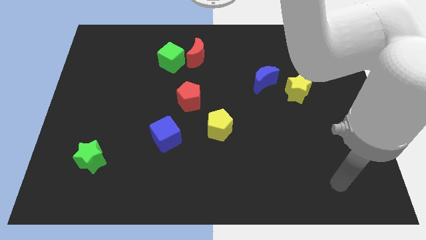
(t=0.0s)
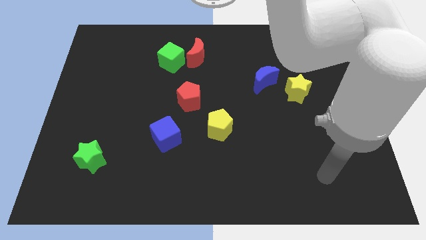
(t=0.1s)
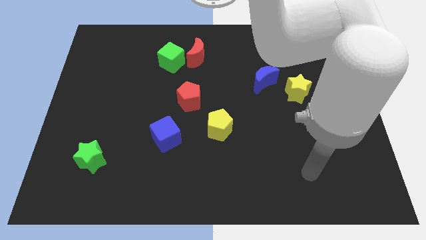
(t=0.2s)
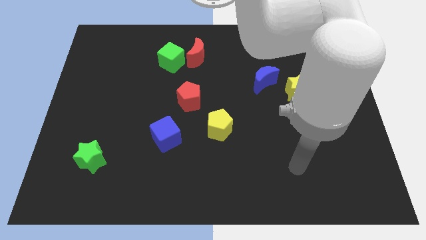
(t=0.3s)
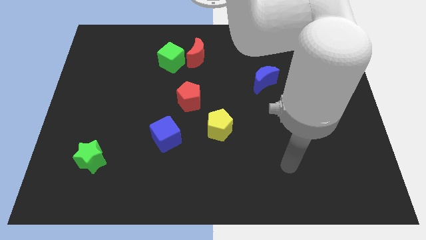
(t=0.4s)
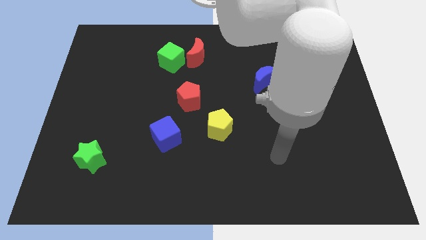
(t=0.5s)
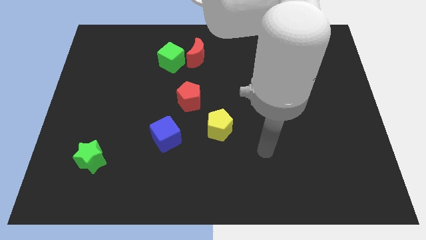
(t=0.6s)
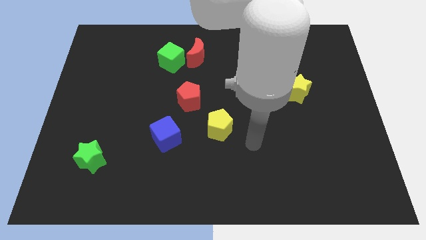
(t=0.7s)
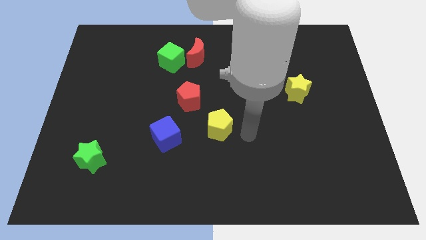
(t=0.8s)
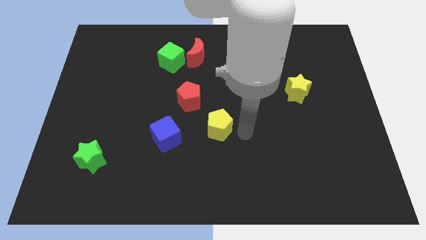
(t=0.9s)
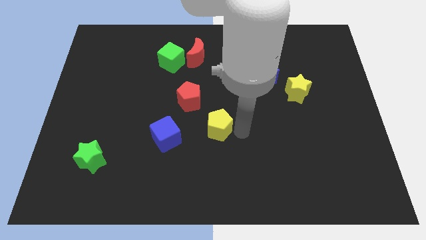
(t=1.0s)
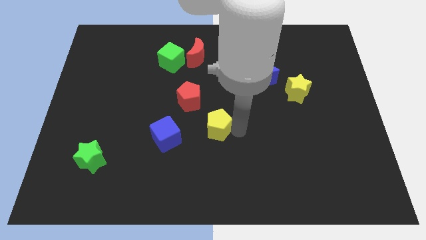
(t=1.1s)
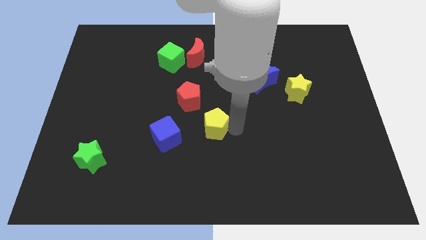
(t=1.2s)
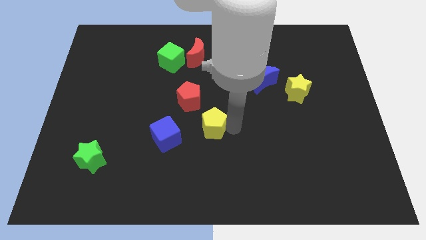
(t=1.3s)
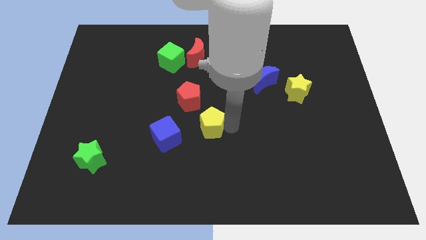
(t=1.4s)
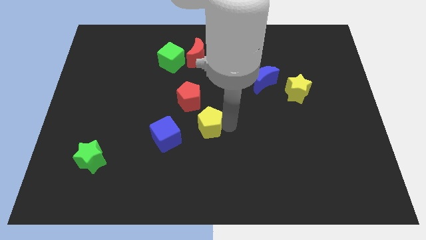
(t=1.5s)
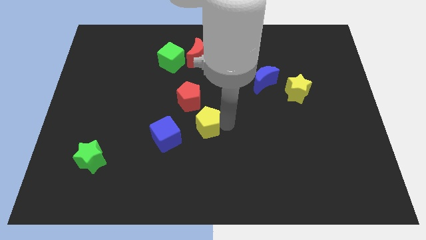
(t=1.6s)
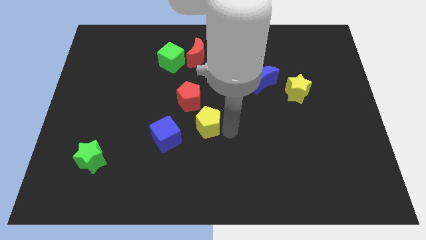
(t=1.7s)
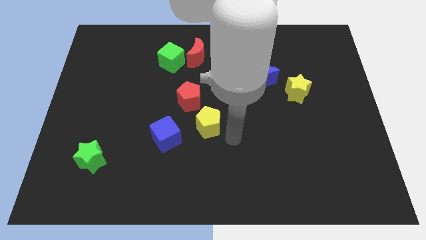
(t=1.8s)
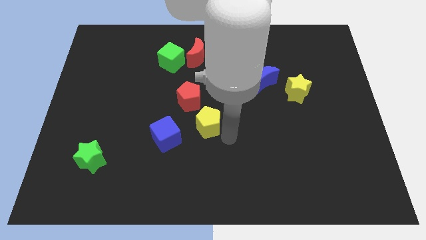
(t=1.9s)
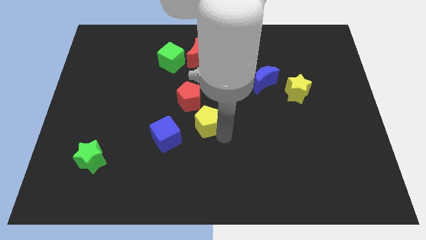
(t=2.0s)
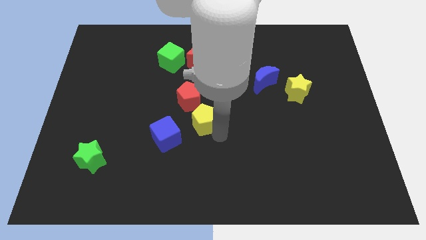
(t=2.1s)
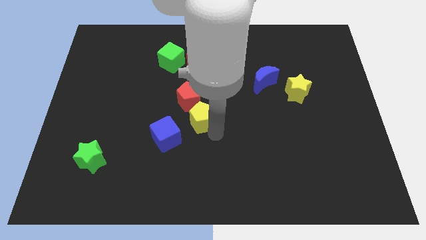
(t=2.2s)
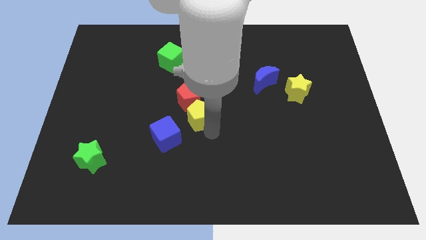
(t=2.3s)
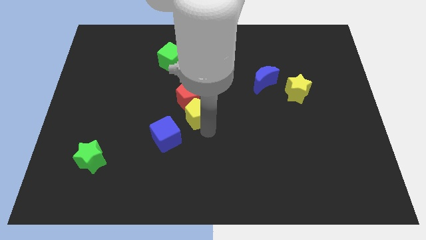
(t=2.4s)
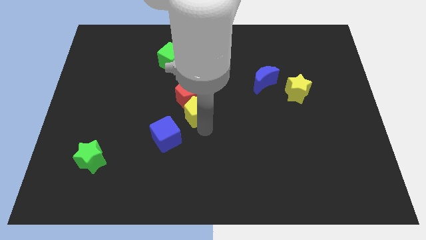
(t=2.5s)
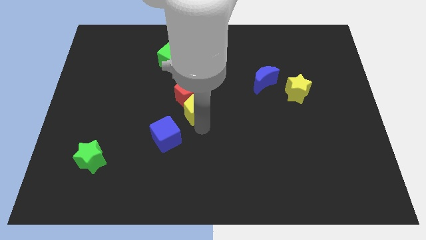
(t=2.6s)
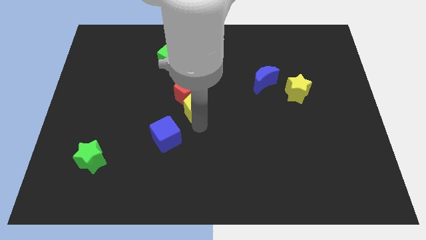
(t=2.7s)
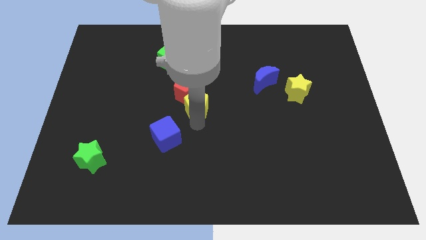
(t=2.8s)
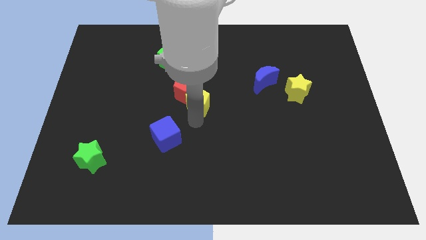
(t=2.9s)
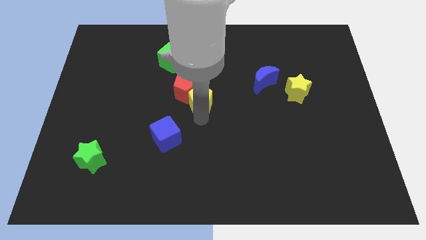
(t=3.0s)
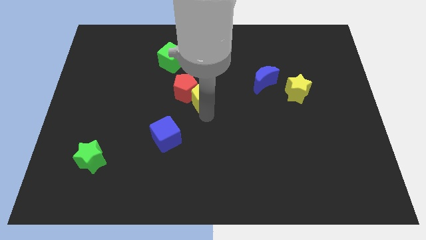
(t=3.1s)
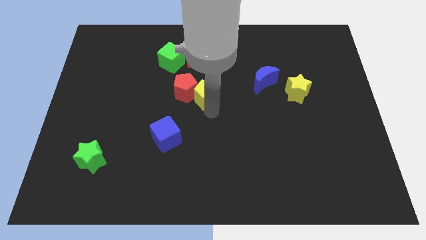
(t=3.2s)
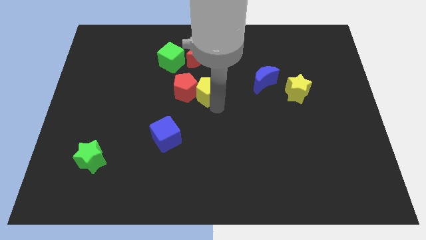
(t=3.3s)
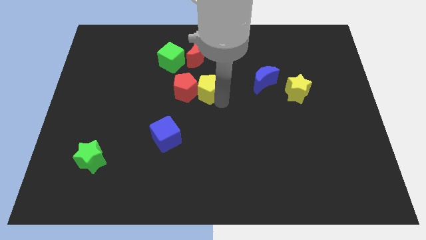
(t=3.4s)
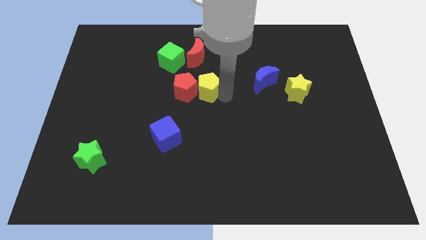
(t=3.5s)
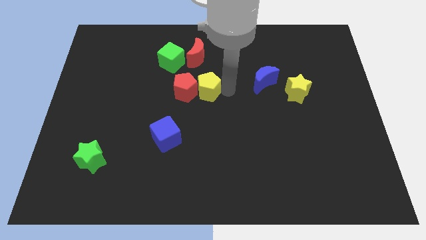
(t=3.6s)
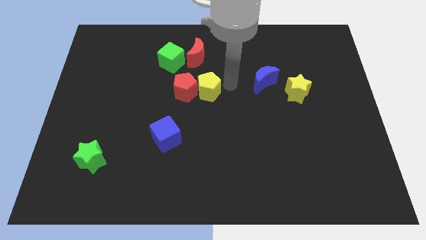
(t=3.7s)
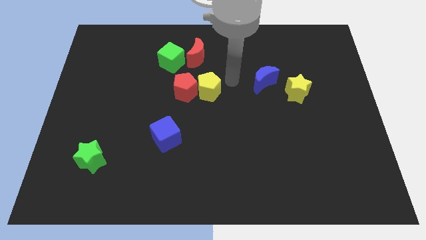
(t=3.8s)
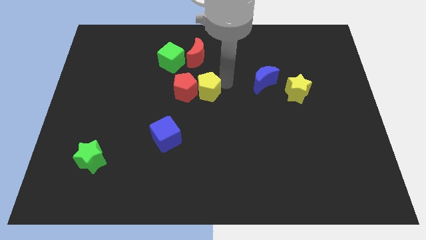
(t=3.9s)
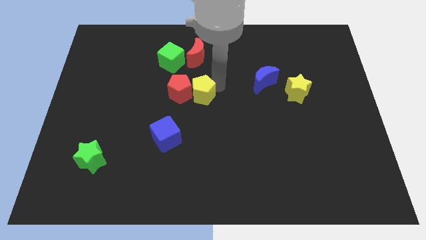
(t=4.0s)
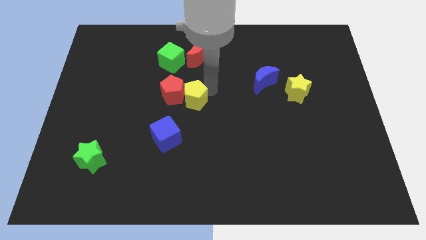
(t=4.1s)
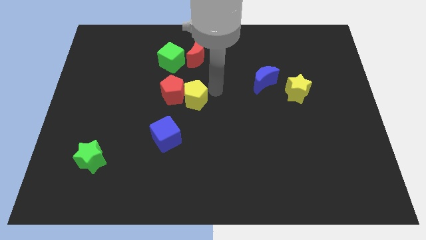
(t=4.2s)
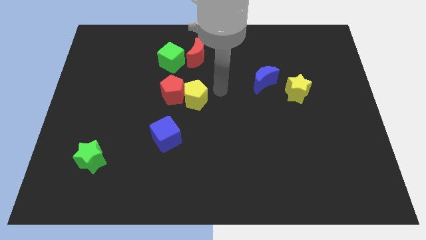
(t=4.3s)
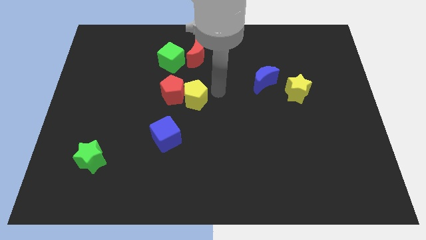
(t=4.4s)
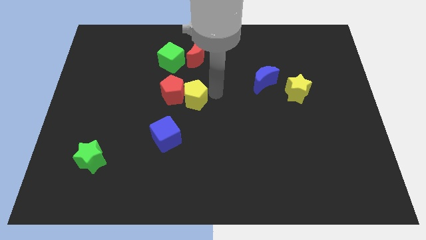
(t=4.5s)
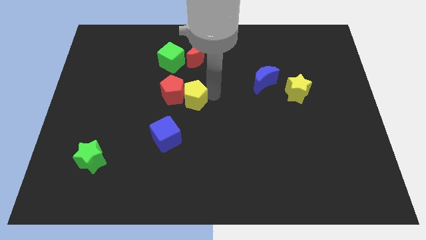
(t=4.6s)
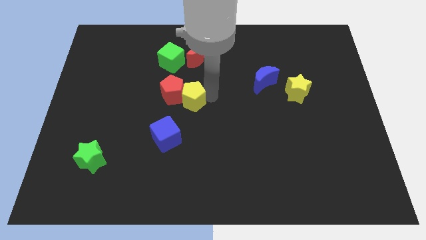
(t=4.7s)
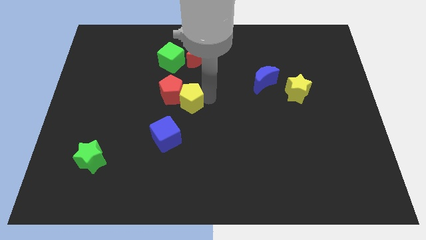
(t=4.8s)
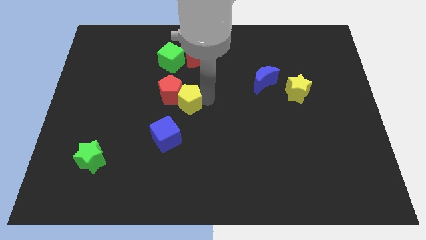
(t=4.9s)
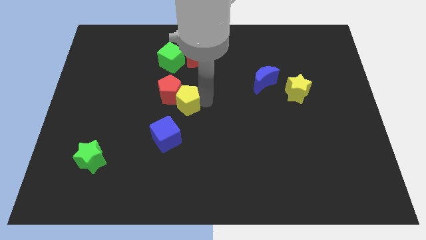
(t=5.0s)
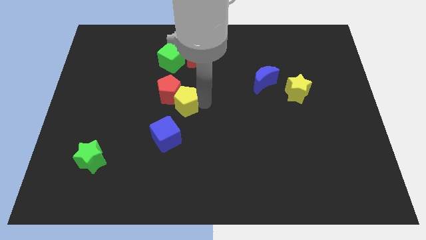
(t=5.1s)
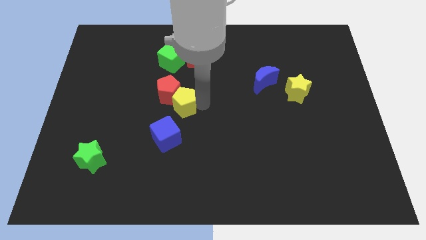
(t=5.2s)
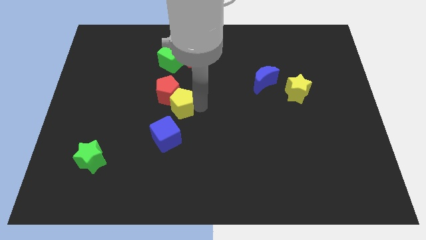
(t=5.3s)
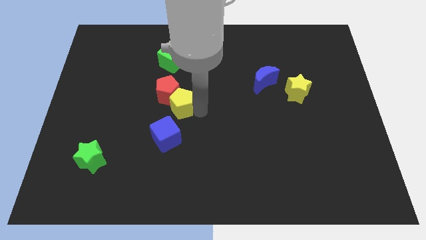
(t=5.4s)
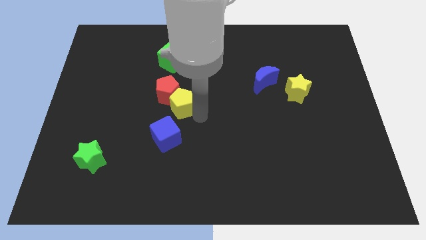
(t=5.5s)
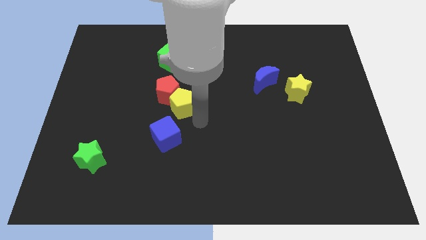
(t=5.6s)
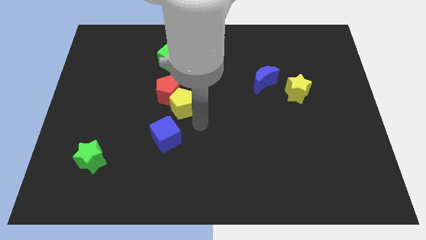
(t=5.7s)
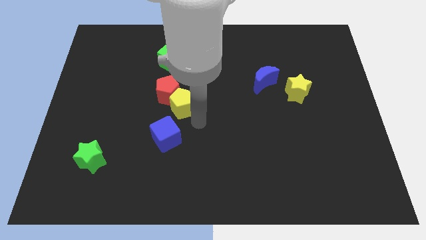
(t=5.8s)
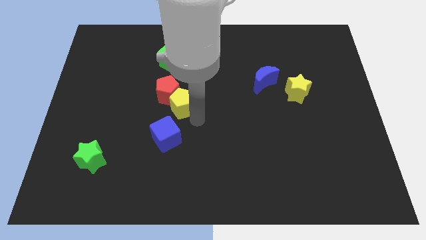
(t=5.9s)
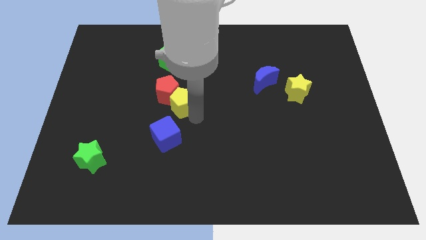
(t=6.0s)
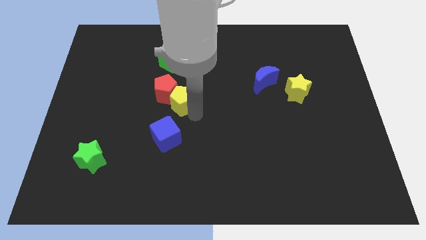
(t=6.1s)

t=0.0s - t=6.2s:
push the yellow pentagon below the green cube

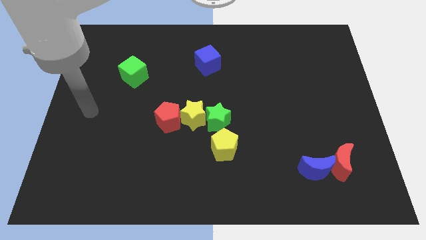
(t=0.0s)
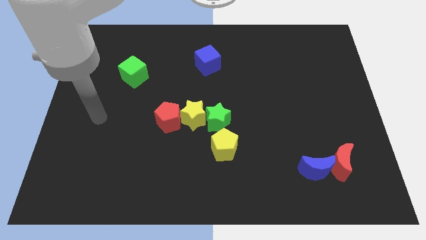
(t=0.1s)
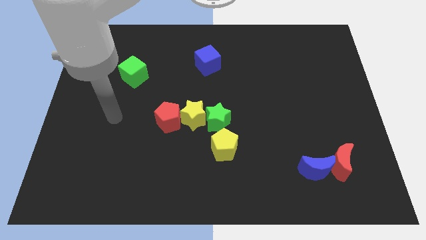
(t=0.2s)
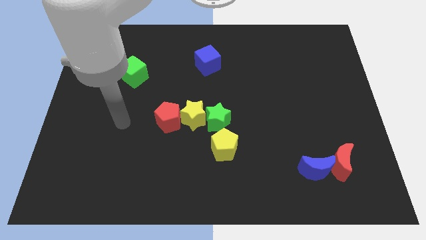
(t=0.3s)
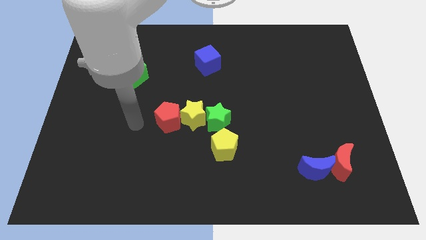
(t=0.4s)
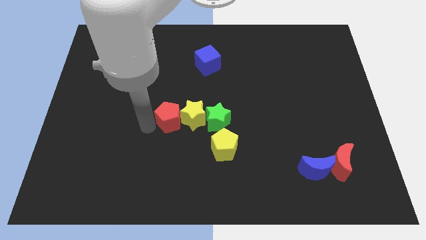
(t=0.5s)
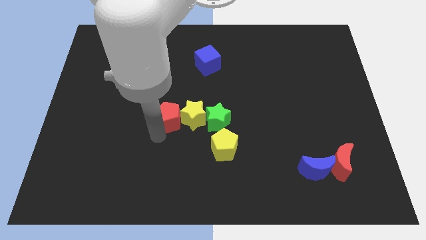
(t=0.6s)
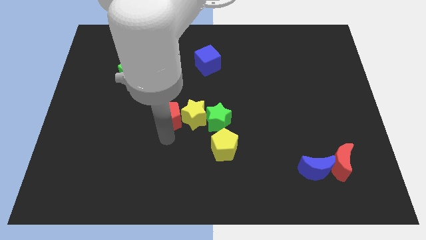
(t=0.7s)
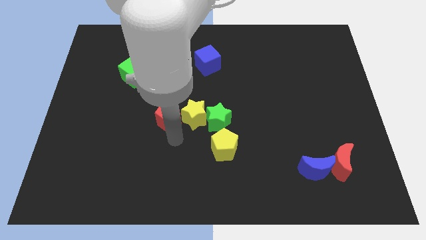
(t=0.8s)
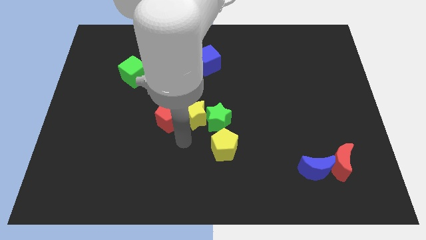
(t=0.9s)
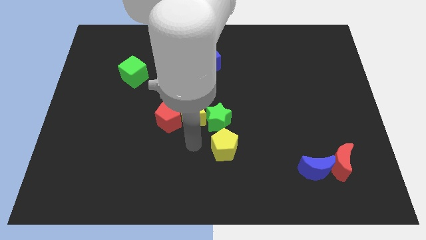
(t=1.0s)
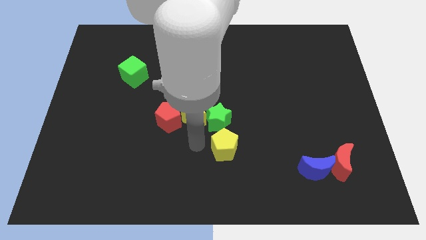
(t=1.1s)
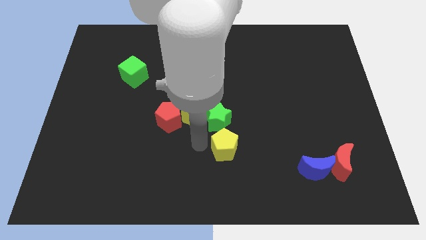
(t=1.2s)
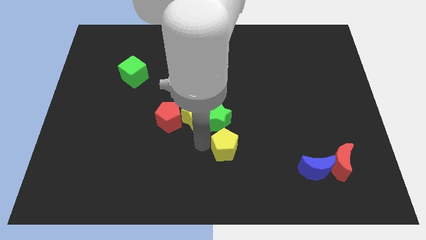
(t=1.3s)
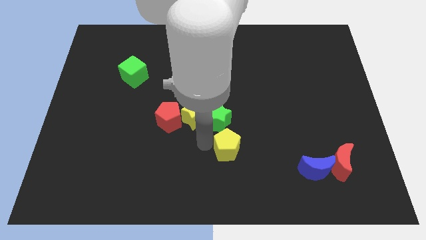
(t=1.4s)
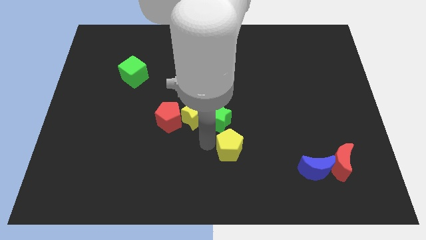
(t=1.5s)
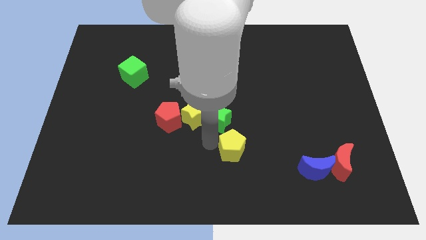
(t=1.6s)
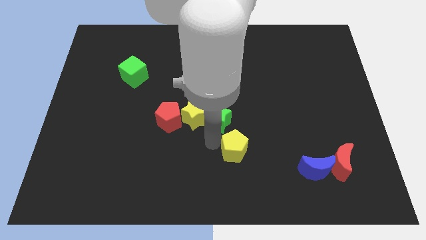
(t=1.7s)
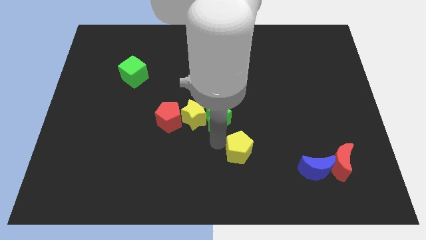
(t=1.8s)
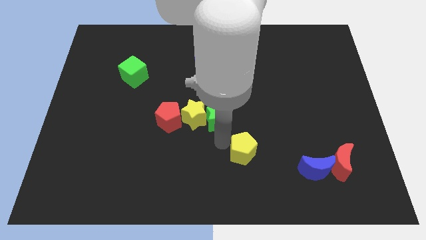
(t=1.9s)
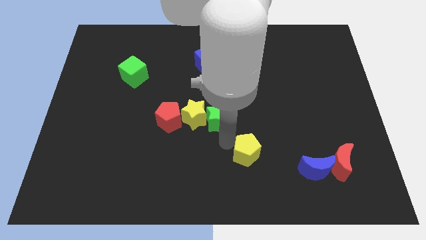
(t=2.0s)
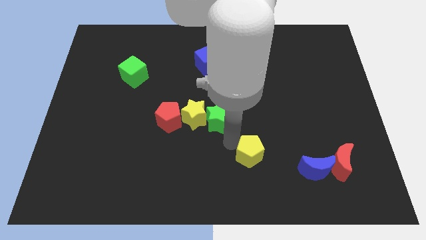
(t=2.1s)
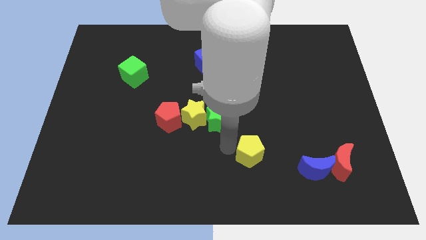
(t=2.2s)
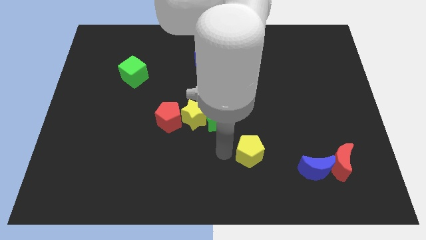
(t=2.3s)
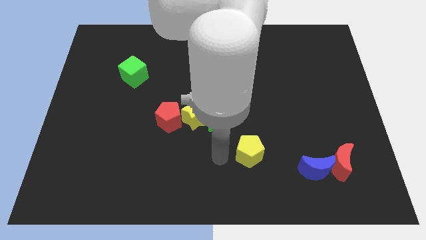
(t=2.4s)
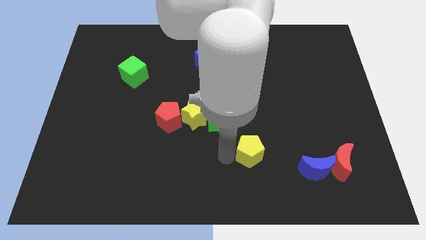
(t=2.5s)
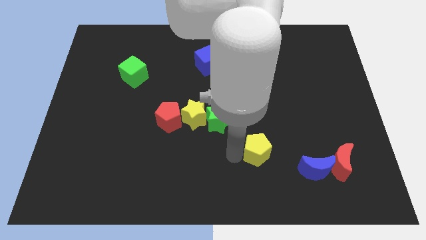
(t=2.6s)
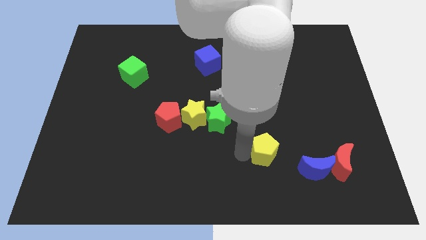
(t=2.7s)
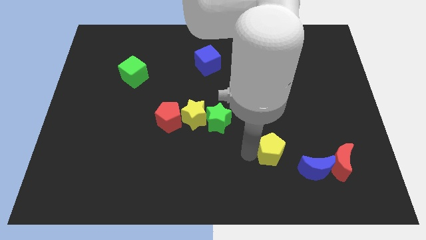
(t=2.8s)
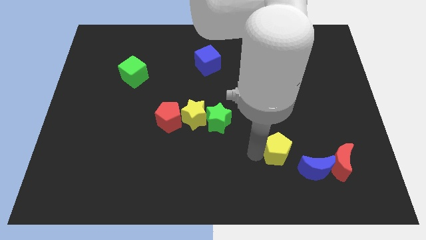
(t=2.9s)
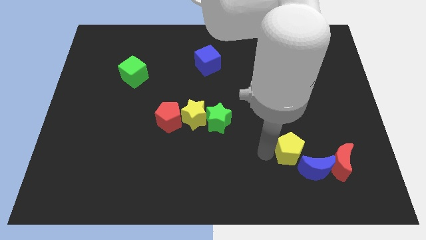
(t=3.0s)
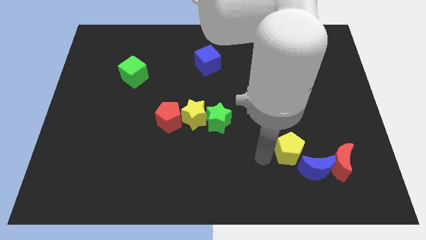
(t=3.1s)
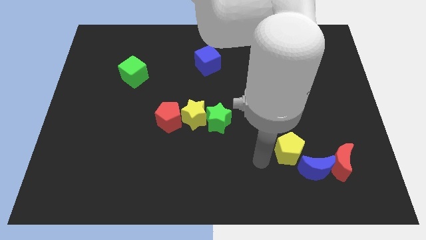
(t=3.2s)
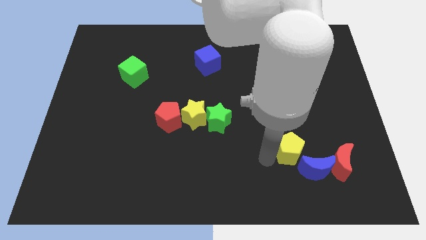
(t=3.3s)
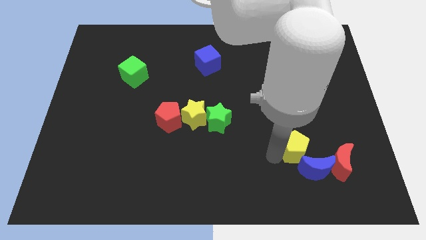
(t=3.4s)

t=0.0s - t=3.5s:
slide the yellow pentagon to the top left of the red moon
